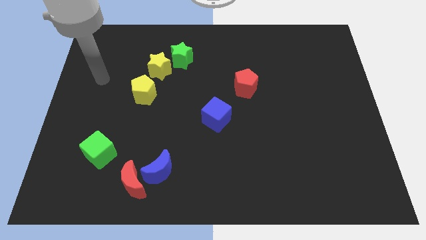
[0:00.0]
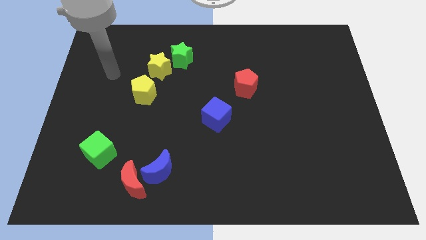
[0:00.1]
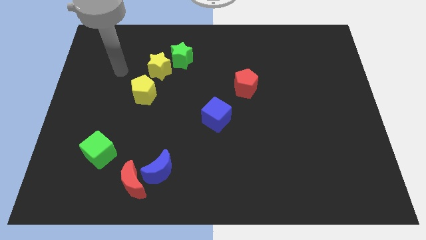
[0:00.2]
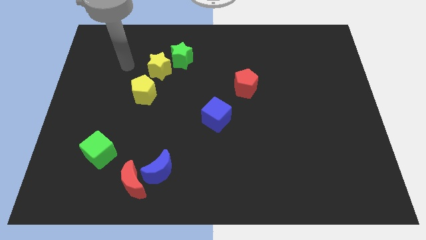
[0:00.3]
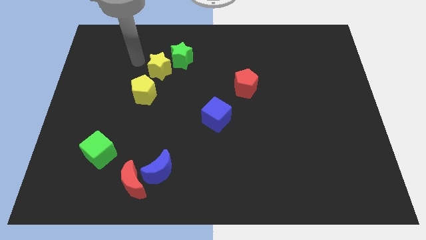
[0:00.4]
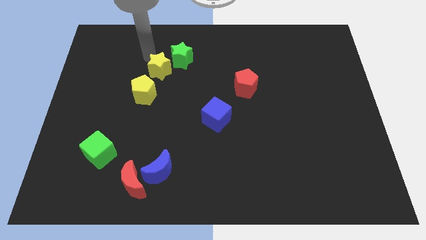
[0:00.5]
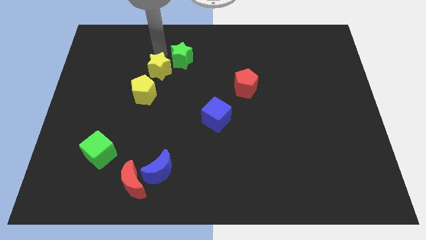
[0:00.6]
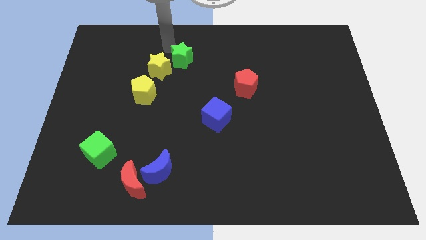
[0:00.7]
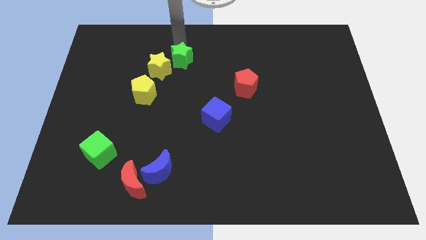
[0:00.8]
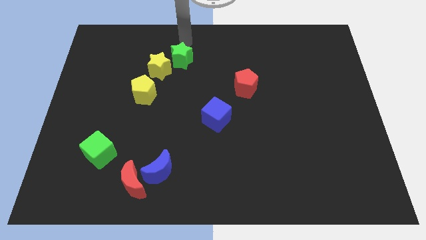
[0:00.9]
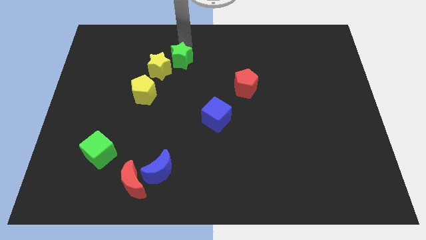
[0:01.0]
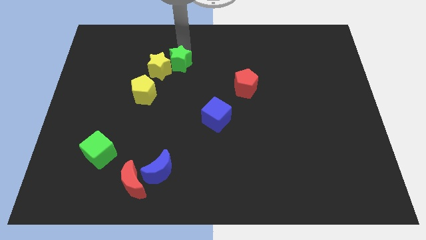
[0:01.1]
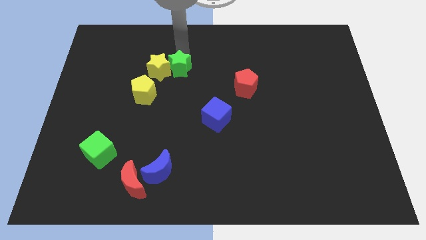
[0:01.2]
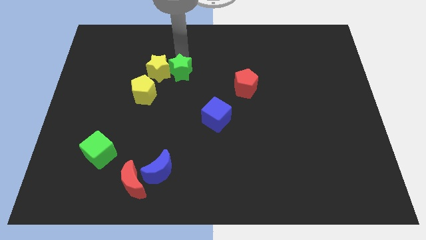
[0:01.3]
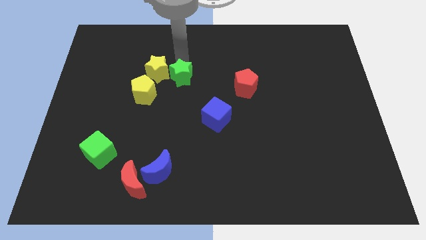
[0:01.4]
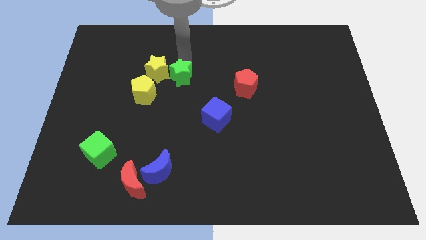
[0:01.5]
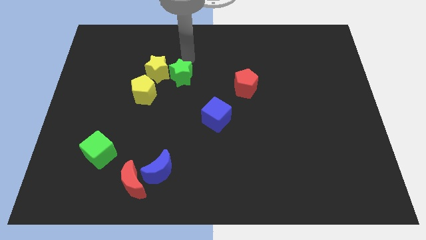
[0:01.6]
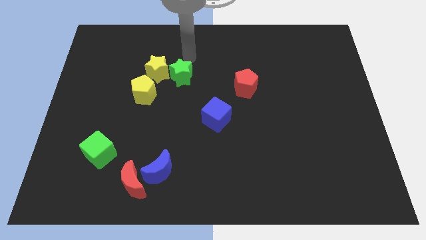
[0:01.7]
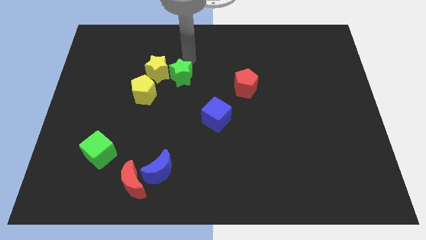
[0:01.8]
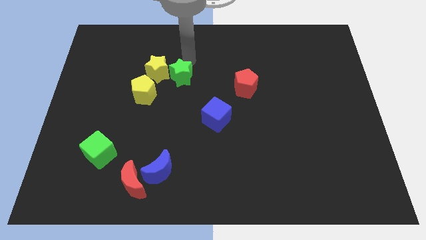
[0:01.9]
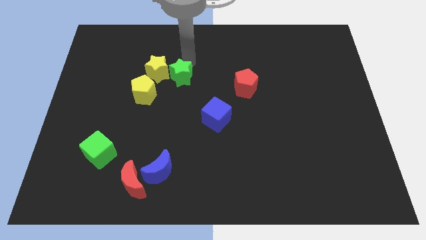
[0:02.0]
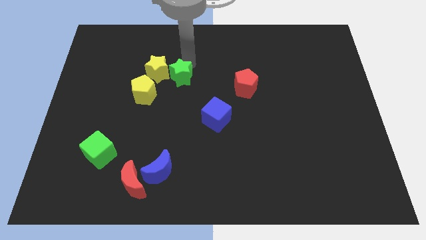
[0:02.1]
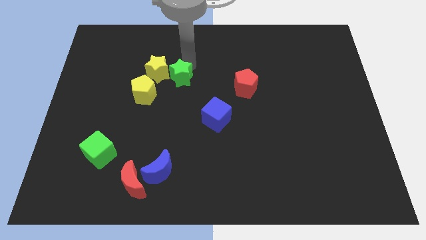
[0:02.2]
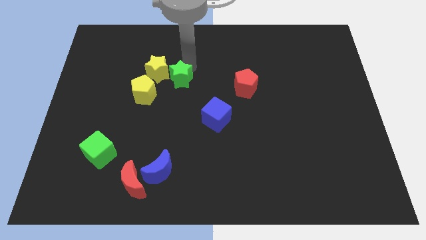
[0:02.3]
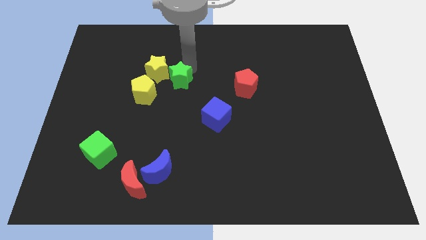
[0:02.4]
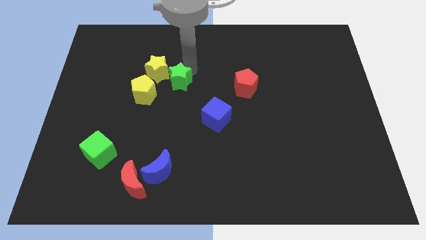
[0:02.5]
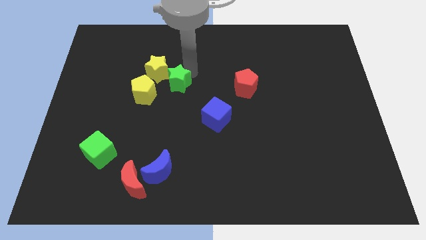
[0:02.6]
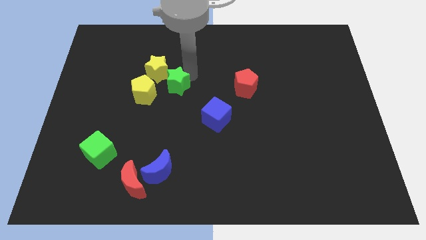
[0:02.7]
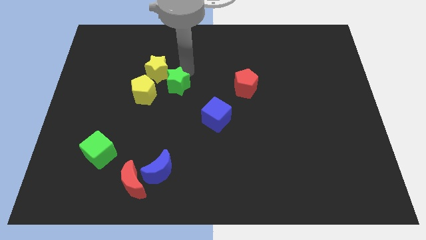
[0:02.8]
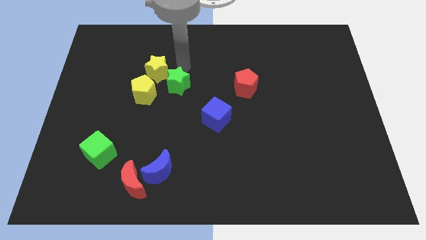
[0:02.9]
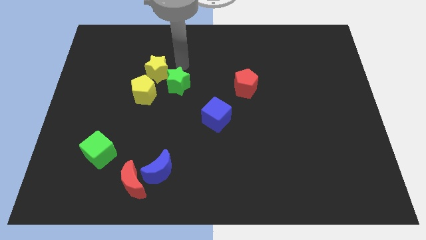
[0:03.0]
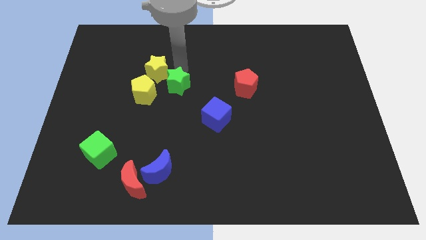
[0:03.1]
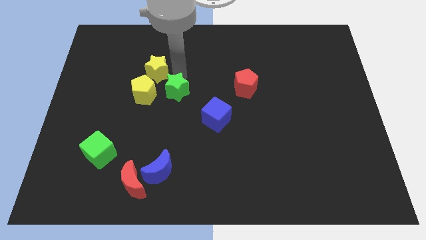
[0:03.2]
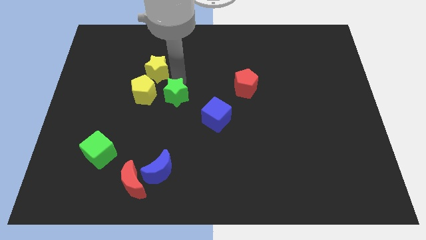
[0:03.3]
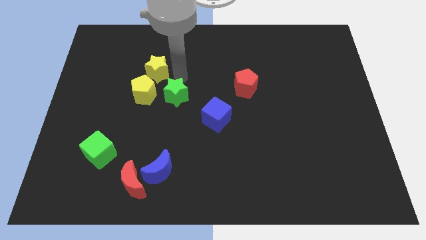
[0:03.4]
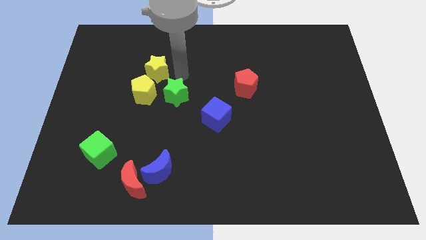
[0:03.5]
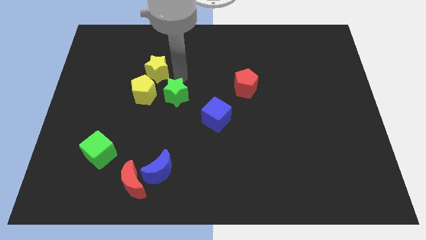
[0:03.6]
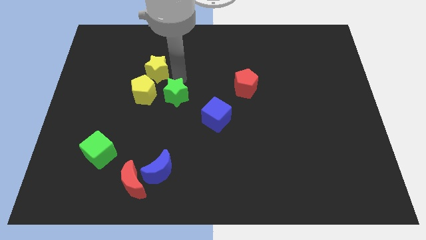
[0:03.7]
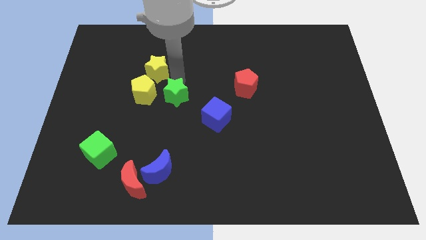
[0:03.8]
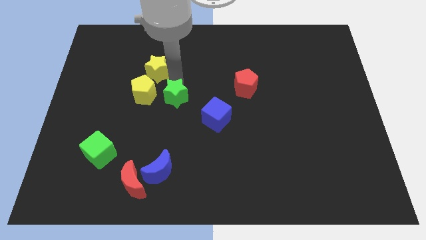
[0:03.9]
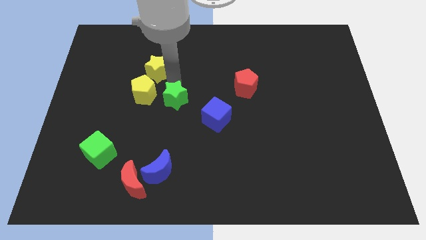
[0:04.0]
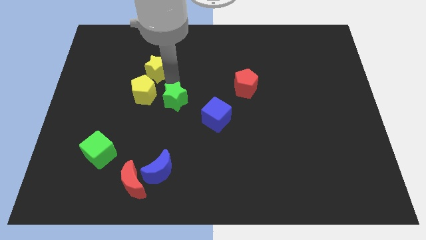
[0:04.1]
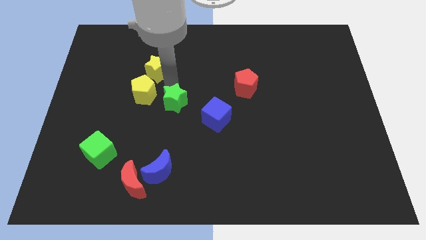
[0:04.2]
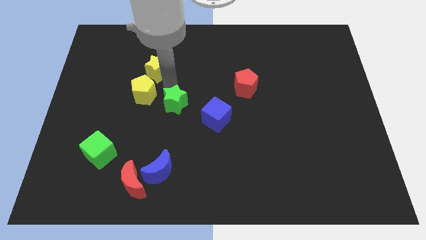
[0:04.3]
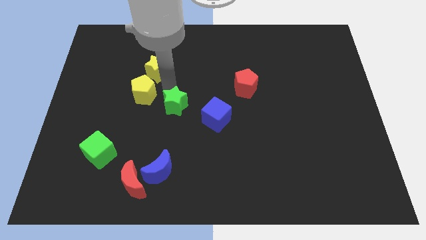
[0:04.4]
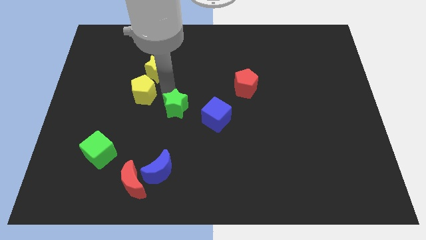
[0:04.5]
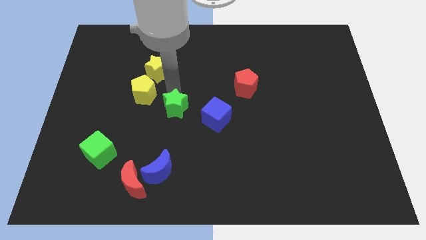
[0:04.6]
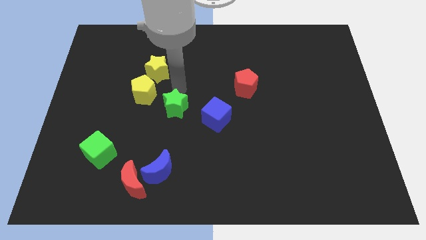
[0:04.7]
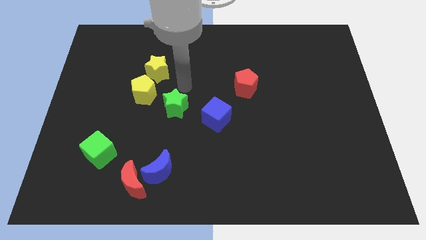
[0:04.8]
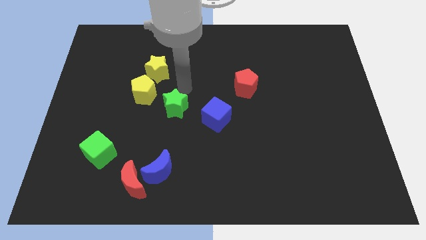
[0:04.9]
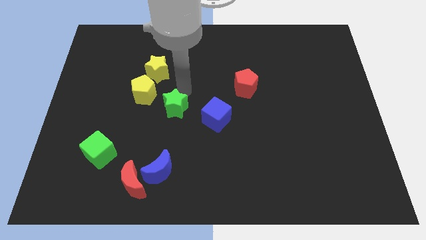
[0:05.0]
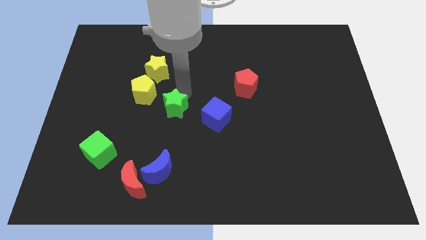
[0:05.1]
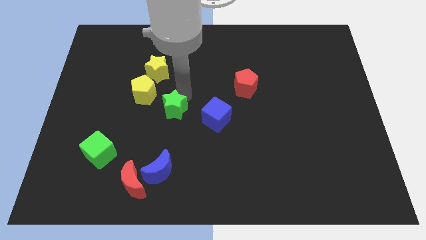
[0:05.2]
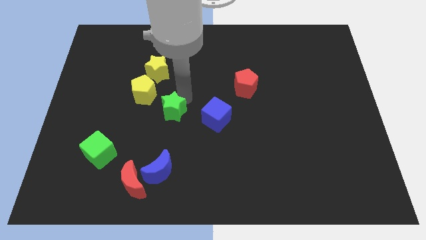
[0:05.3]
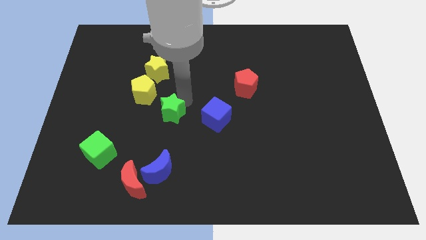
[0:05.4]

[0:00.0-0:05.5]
slide the green star above the blue moon

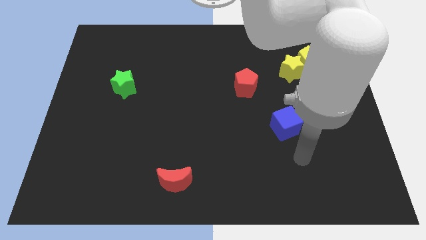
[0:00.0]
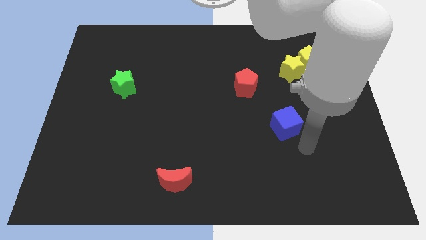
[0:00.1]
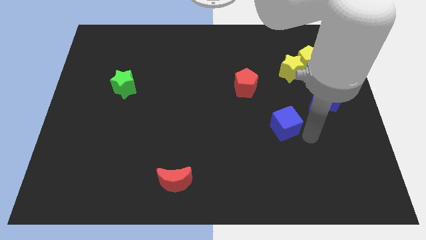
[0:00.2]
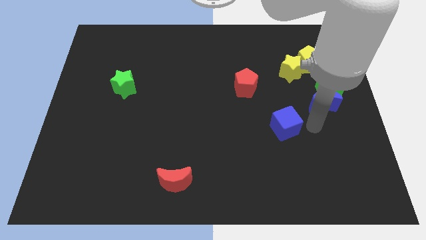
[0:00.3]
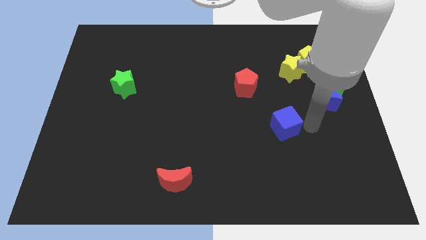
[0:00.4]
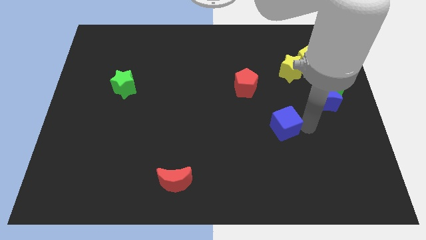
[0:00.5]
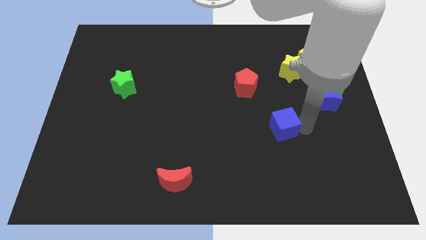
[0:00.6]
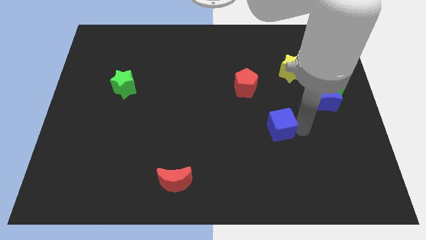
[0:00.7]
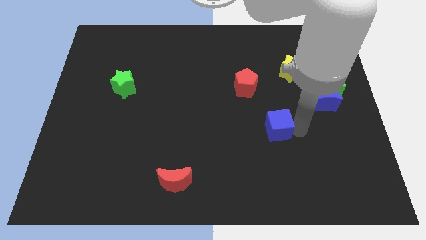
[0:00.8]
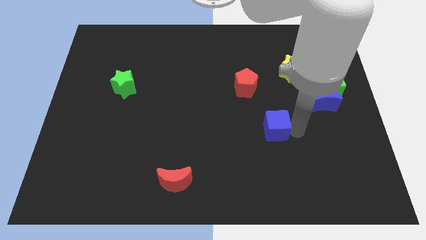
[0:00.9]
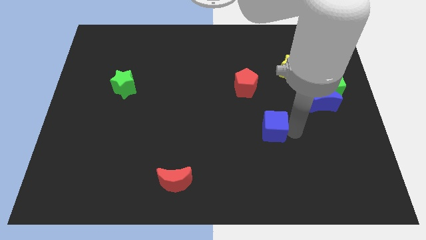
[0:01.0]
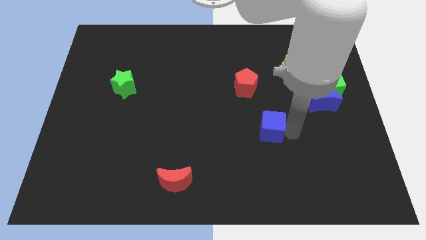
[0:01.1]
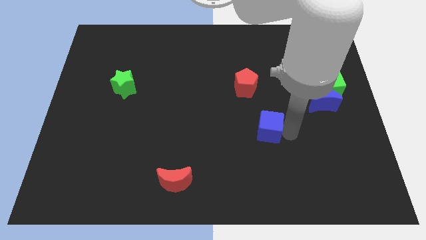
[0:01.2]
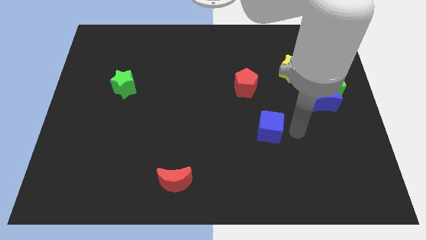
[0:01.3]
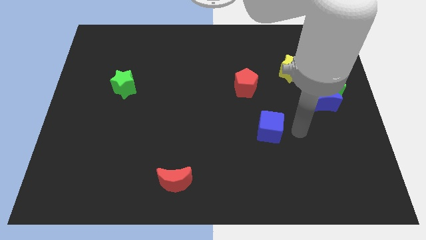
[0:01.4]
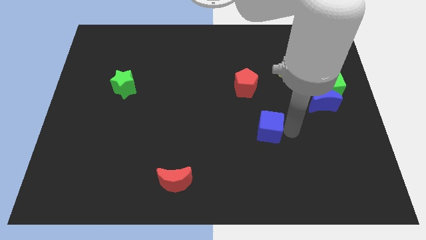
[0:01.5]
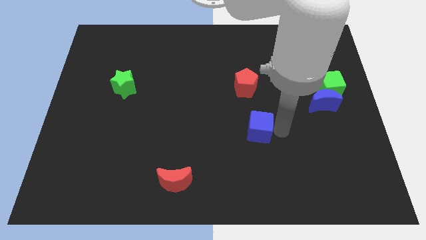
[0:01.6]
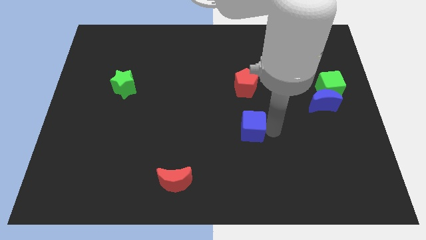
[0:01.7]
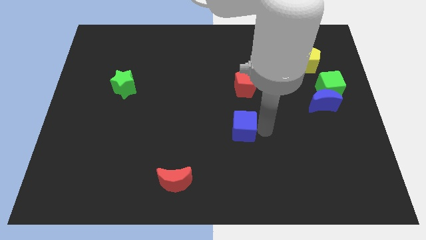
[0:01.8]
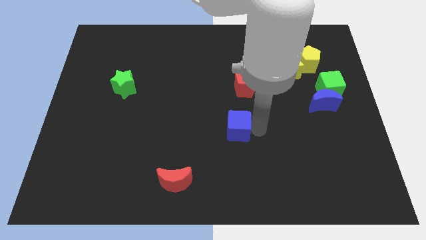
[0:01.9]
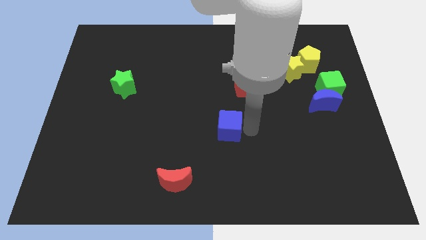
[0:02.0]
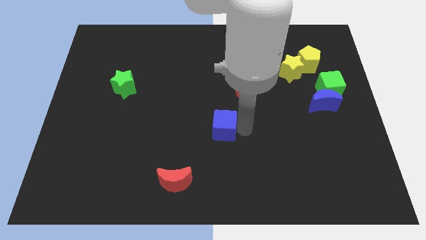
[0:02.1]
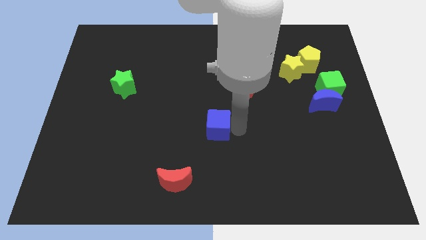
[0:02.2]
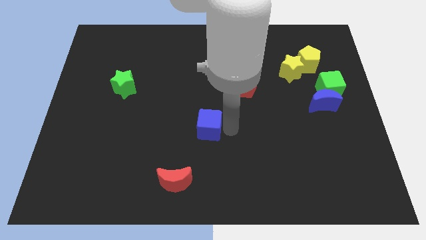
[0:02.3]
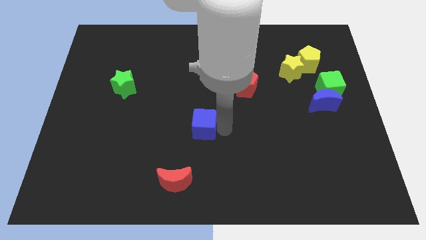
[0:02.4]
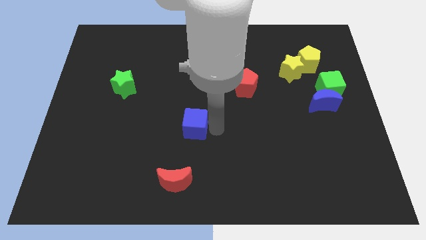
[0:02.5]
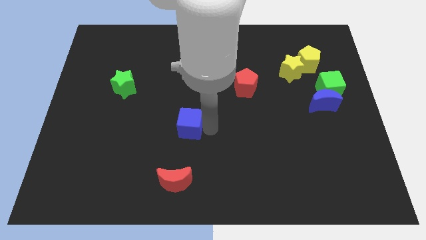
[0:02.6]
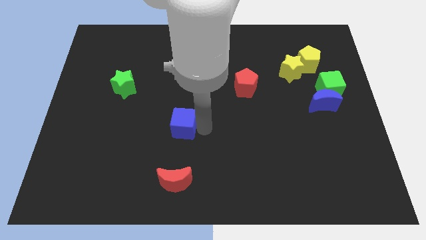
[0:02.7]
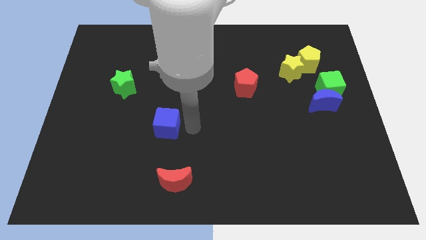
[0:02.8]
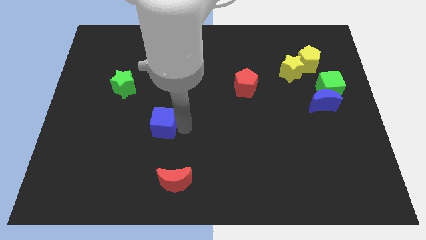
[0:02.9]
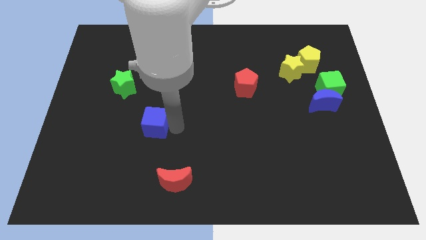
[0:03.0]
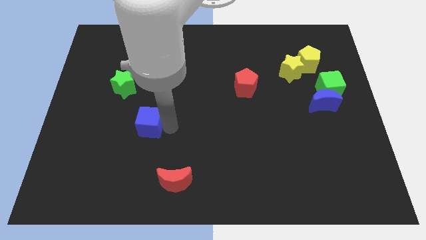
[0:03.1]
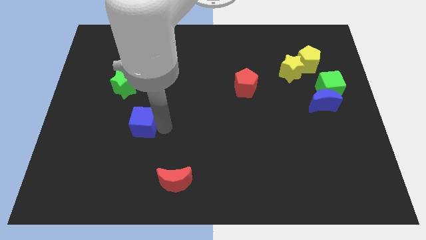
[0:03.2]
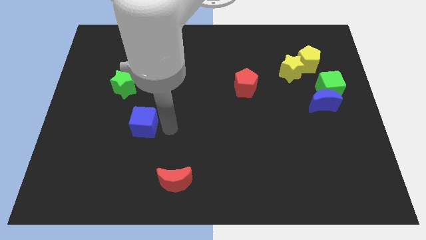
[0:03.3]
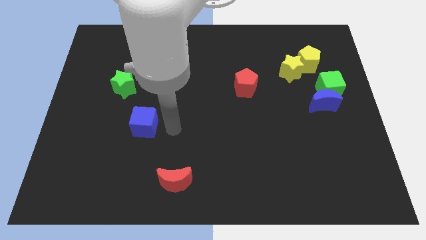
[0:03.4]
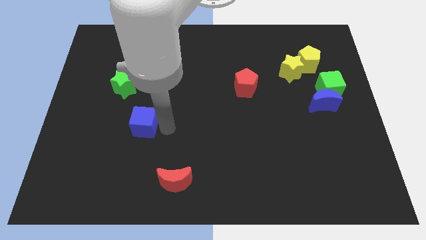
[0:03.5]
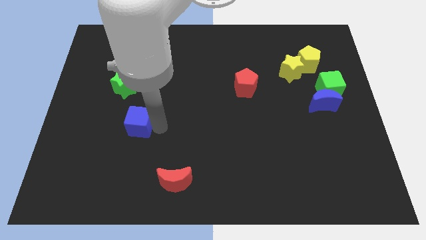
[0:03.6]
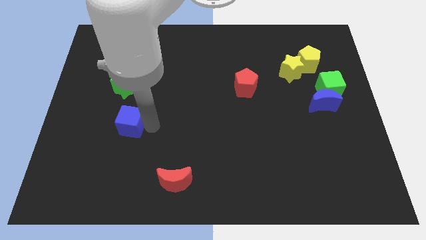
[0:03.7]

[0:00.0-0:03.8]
move the blue cube to the bottom of the green star
